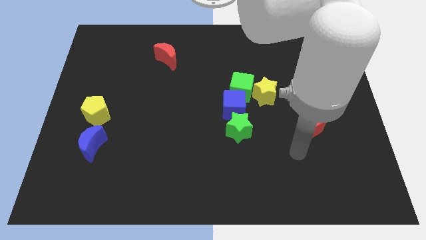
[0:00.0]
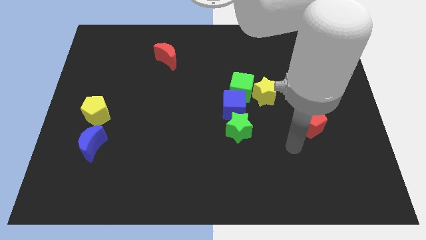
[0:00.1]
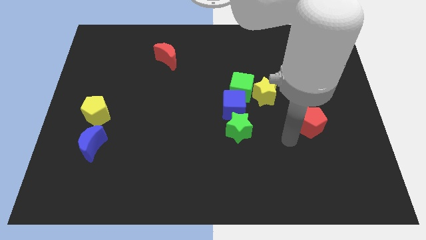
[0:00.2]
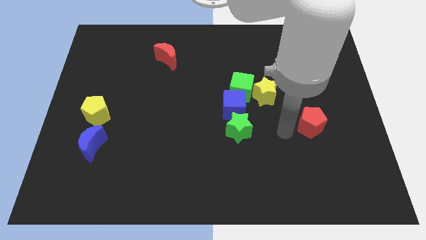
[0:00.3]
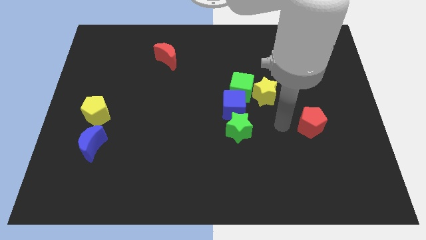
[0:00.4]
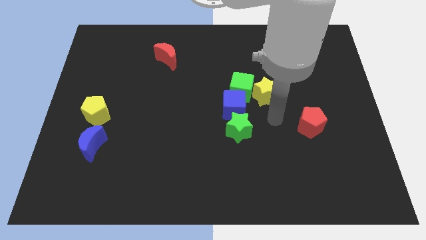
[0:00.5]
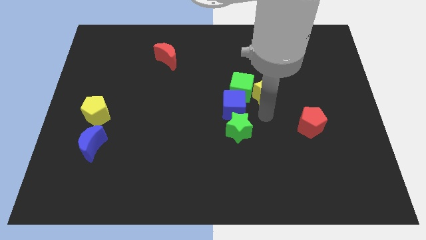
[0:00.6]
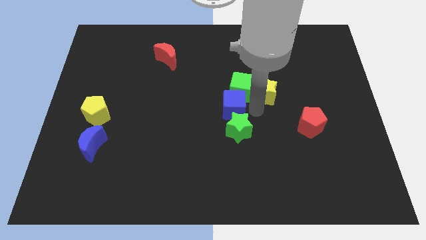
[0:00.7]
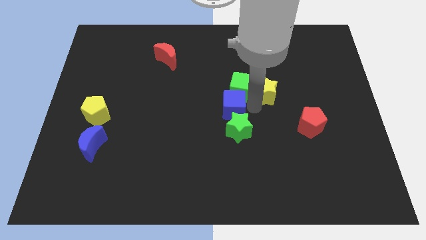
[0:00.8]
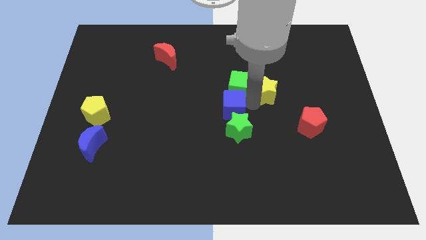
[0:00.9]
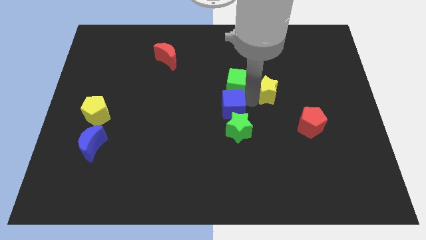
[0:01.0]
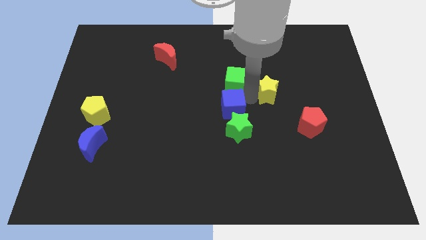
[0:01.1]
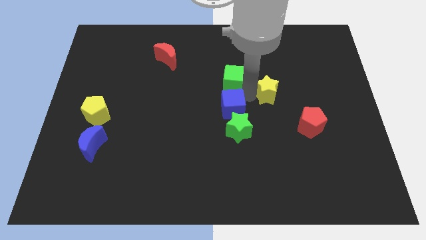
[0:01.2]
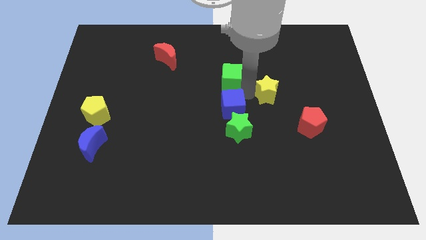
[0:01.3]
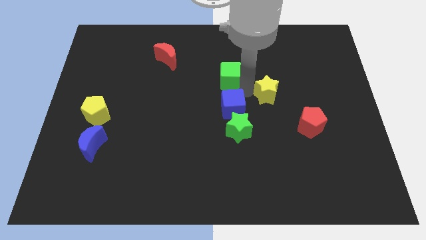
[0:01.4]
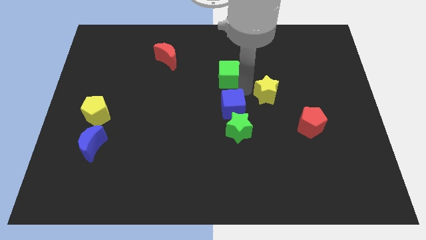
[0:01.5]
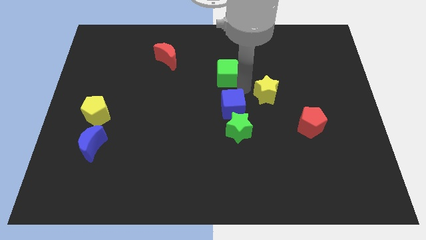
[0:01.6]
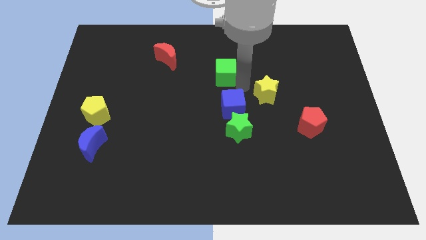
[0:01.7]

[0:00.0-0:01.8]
move the green cube away from the blue cube and yellow star

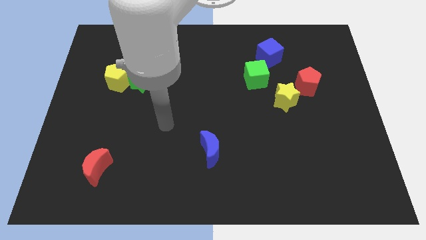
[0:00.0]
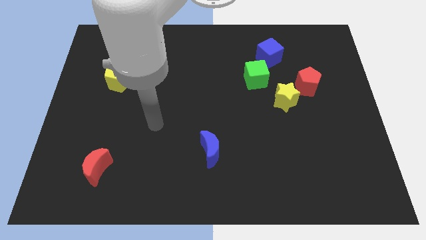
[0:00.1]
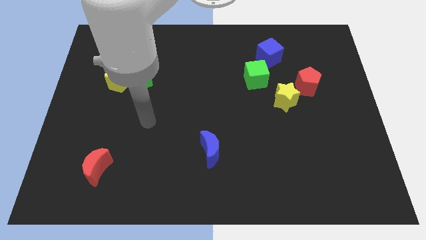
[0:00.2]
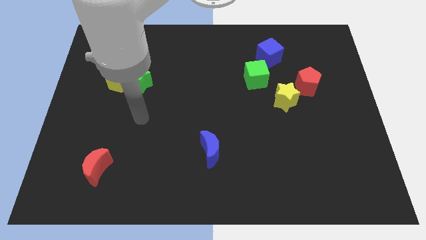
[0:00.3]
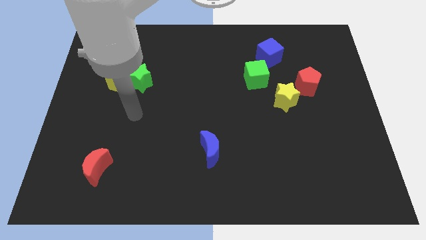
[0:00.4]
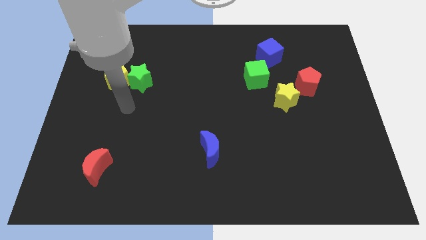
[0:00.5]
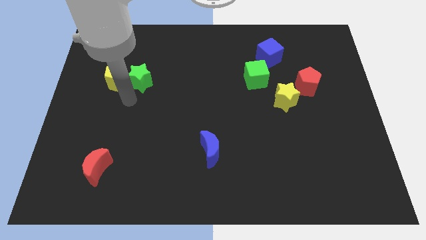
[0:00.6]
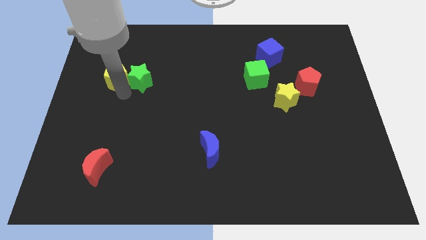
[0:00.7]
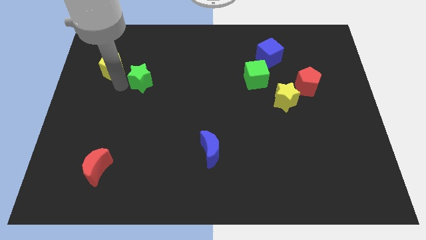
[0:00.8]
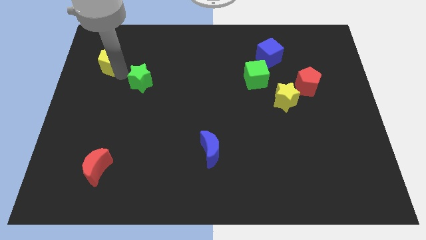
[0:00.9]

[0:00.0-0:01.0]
move the green star away from the yellow pentagon

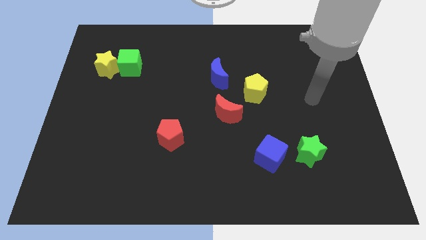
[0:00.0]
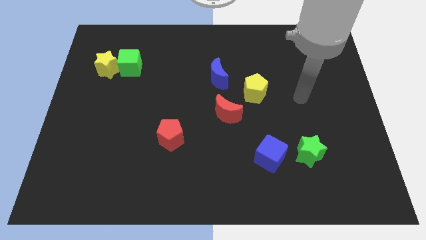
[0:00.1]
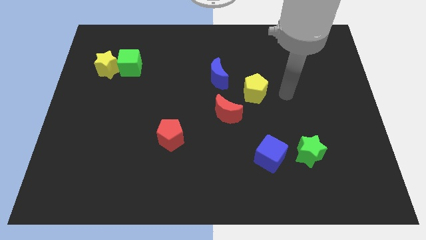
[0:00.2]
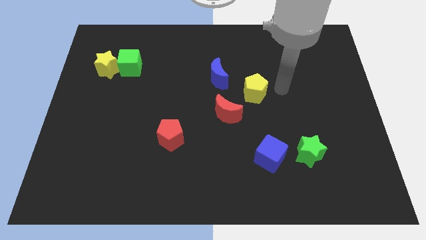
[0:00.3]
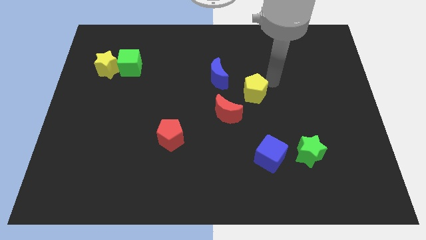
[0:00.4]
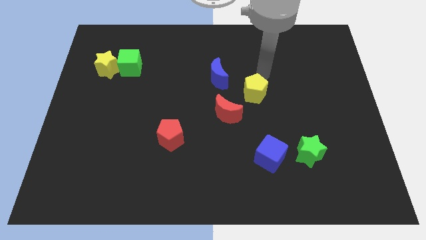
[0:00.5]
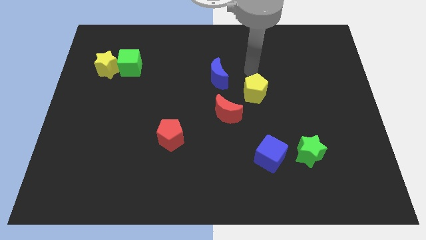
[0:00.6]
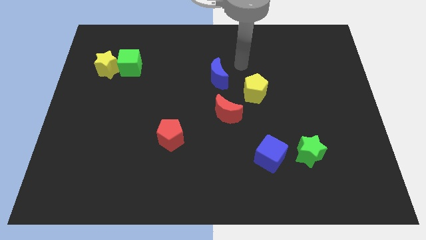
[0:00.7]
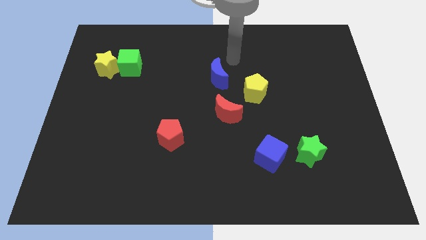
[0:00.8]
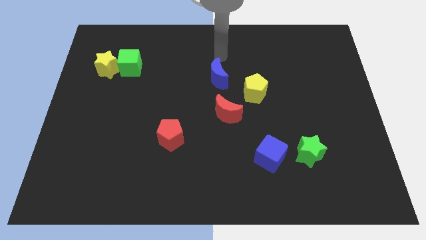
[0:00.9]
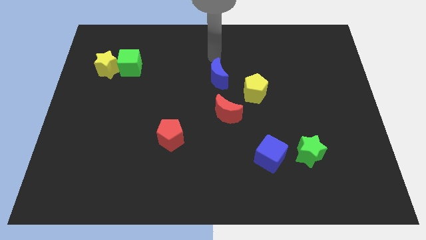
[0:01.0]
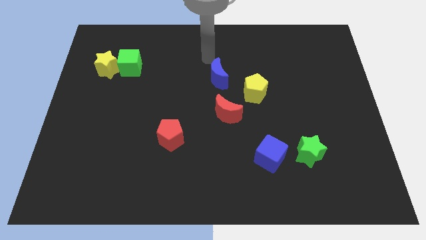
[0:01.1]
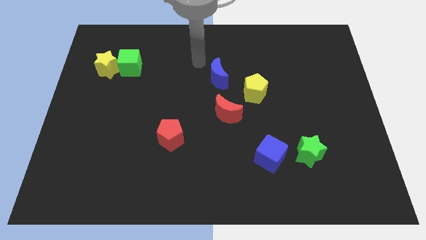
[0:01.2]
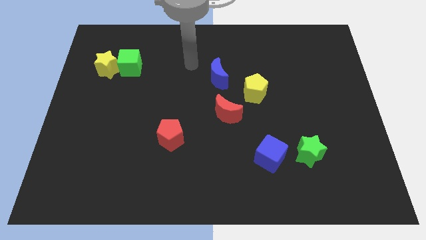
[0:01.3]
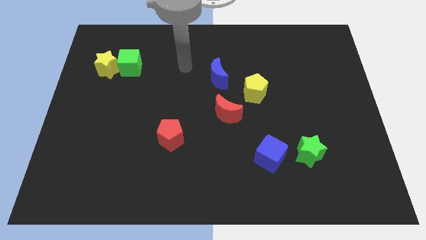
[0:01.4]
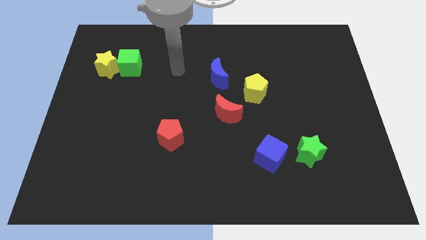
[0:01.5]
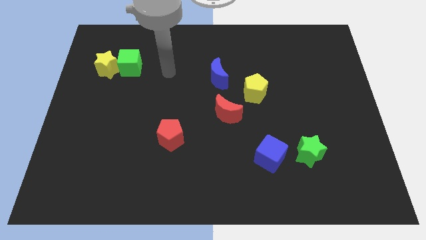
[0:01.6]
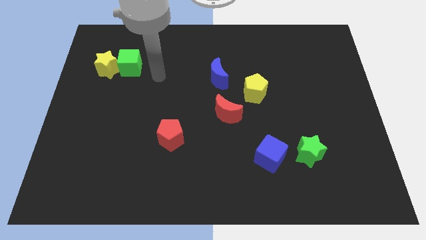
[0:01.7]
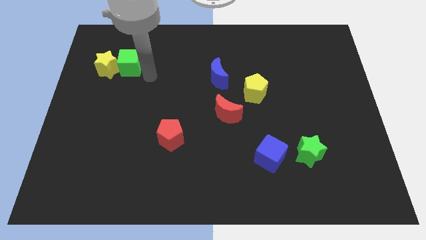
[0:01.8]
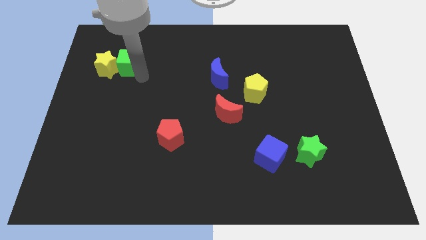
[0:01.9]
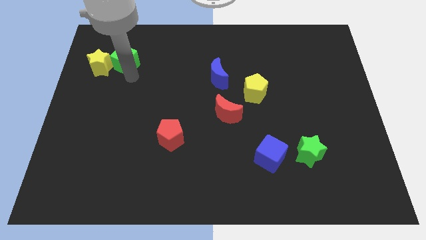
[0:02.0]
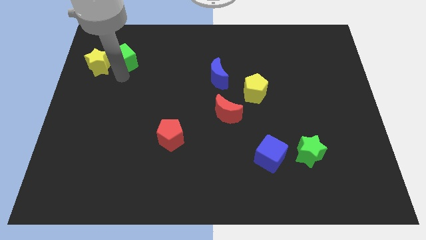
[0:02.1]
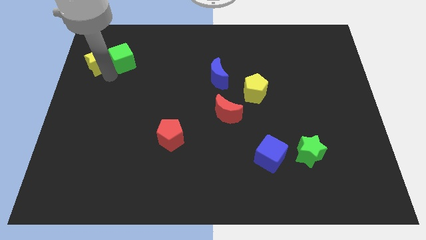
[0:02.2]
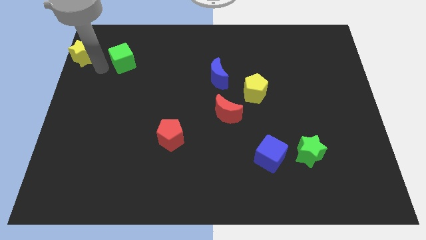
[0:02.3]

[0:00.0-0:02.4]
pull the green cube apart from the yellow star

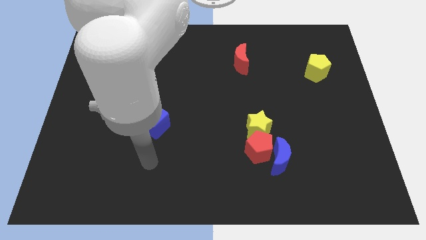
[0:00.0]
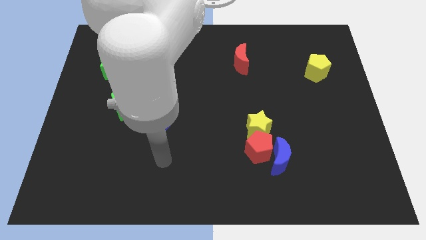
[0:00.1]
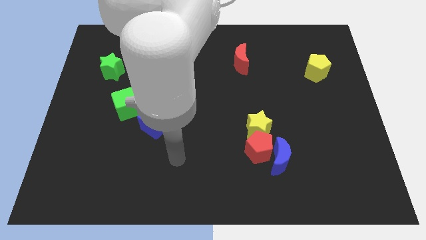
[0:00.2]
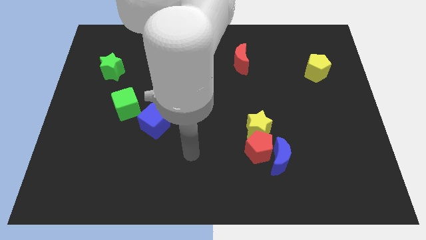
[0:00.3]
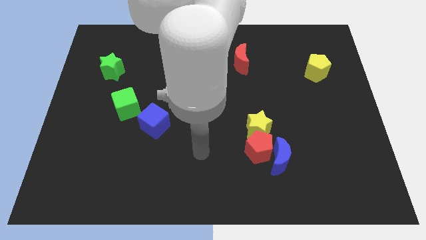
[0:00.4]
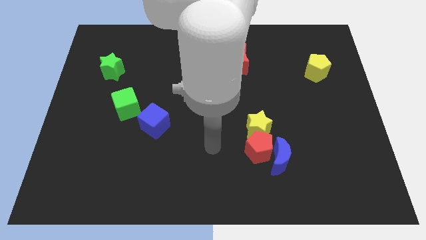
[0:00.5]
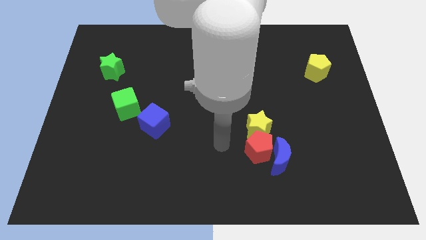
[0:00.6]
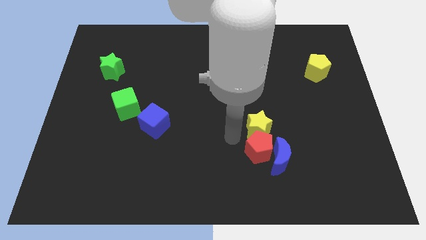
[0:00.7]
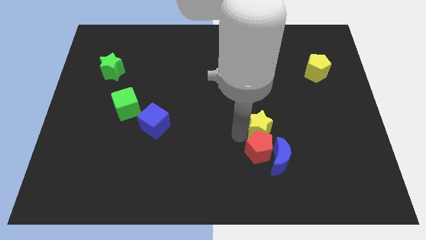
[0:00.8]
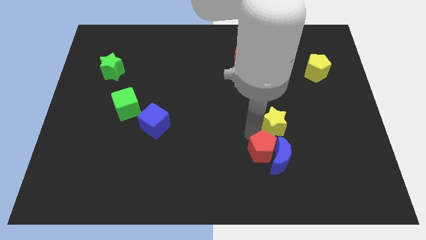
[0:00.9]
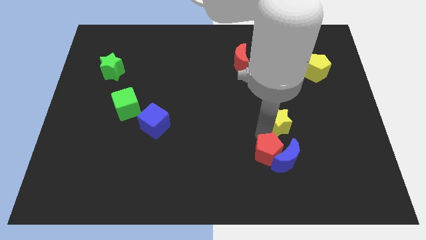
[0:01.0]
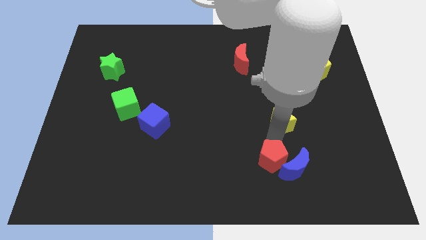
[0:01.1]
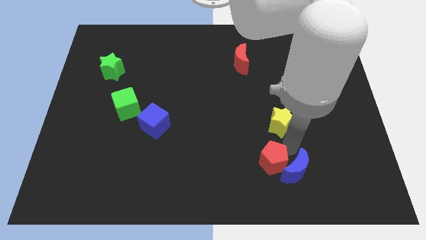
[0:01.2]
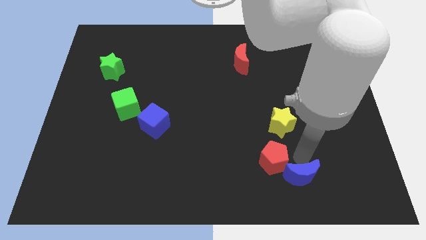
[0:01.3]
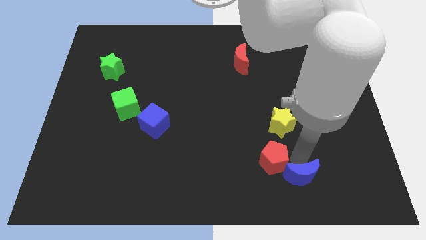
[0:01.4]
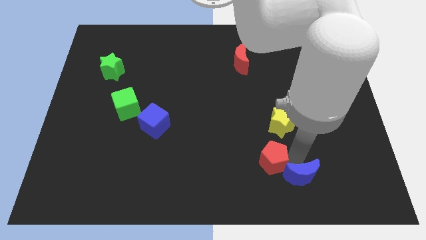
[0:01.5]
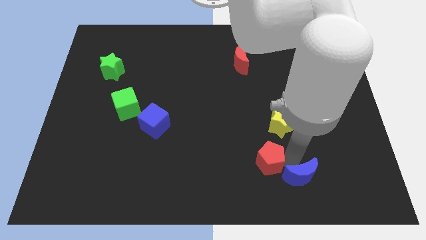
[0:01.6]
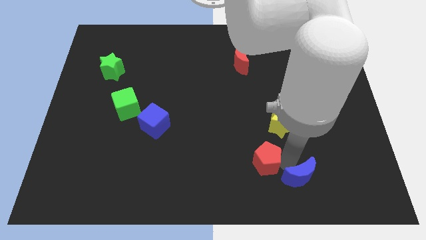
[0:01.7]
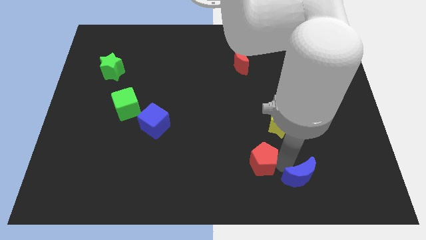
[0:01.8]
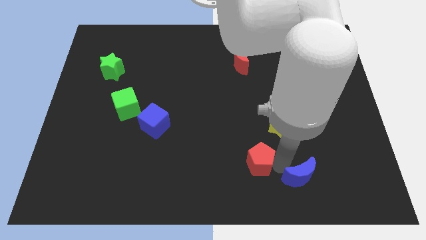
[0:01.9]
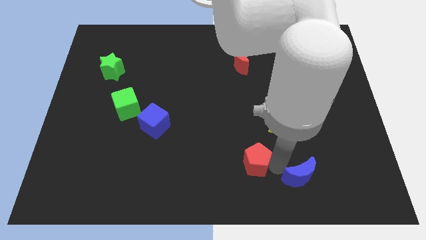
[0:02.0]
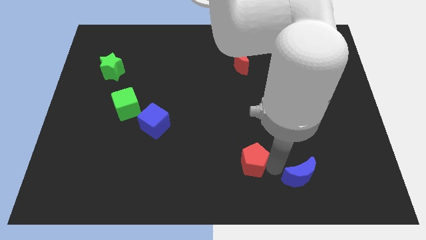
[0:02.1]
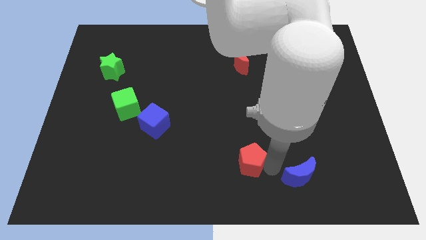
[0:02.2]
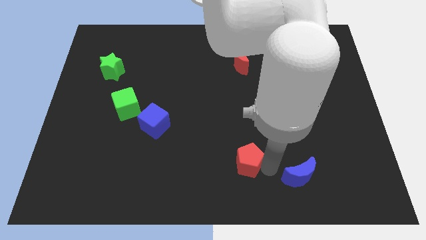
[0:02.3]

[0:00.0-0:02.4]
move the red pentagon away from the blue moon and yellow star

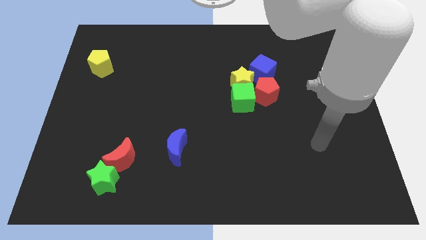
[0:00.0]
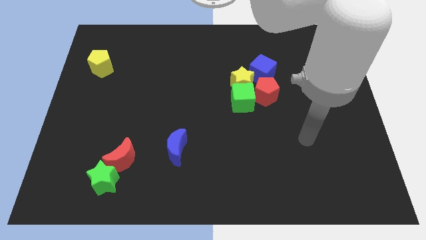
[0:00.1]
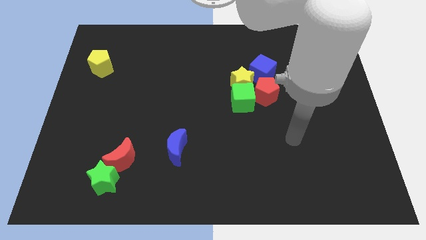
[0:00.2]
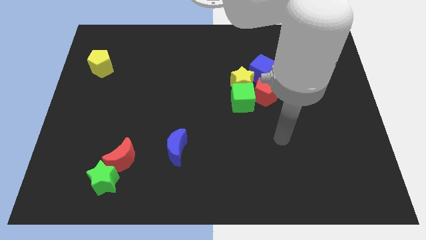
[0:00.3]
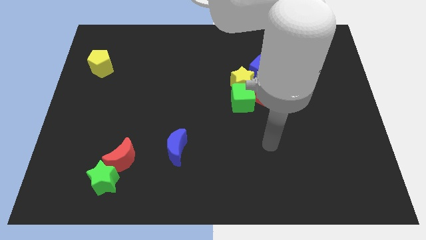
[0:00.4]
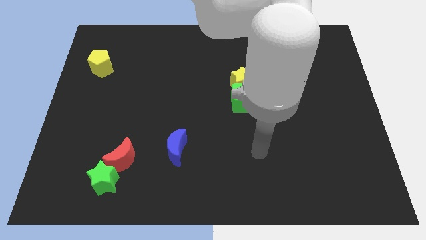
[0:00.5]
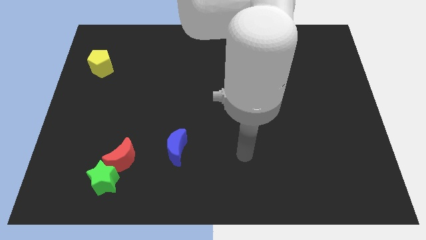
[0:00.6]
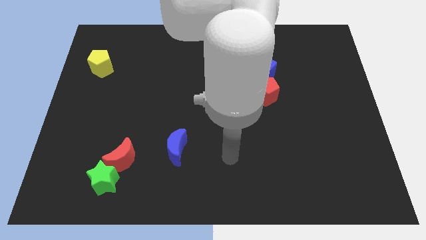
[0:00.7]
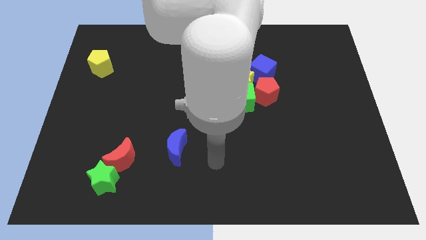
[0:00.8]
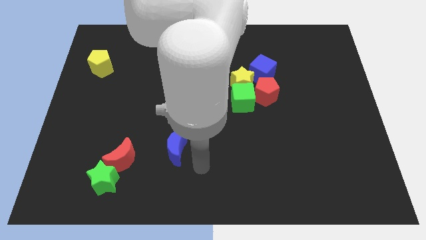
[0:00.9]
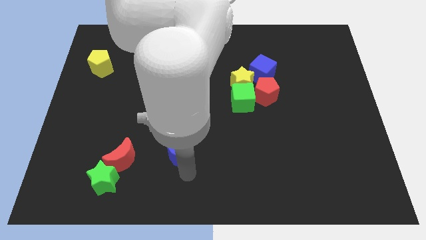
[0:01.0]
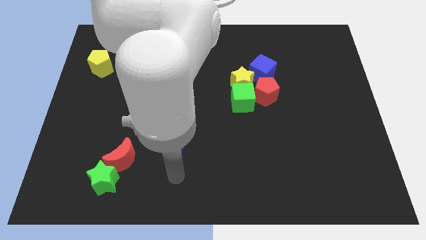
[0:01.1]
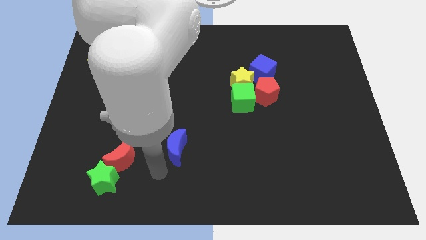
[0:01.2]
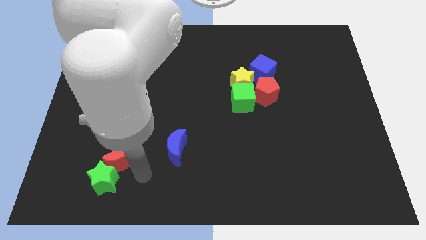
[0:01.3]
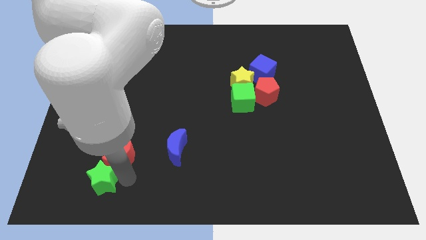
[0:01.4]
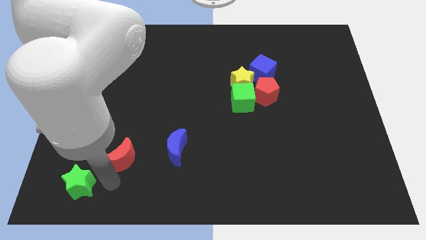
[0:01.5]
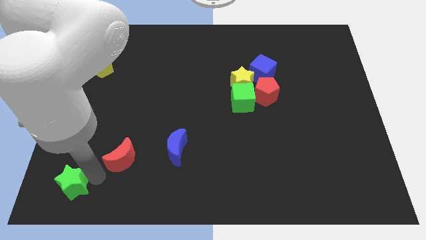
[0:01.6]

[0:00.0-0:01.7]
move the red moon away from the green star
